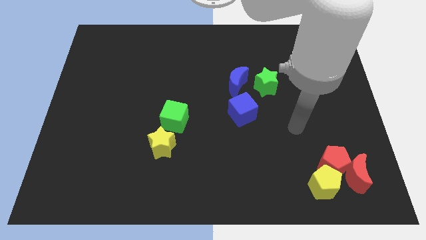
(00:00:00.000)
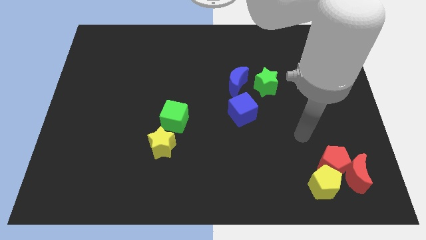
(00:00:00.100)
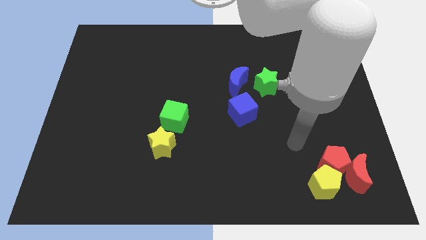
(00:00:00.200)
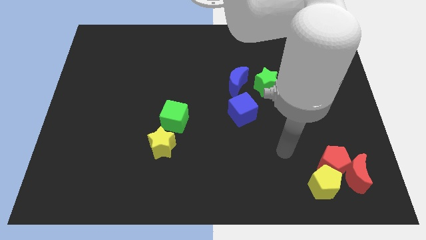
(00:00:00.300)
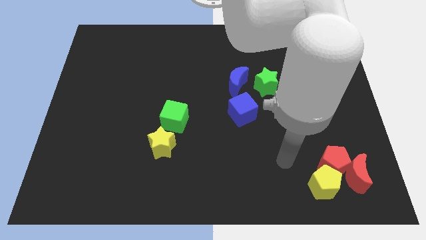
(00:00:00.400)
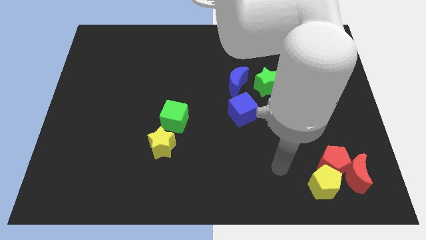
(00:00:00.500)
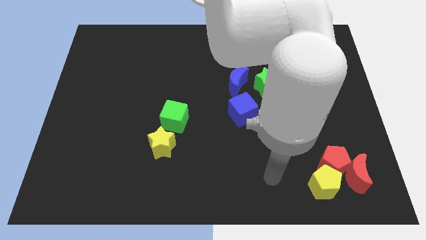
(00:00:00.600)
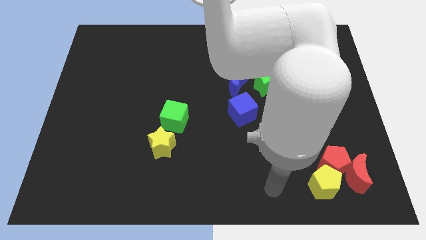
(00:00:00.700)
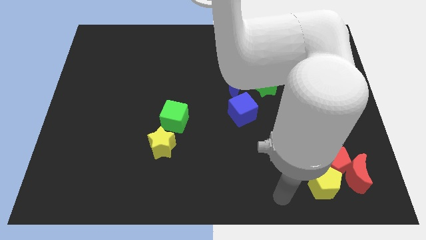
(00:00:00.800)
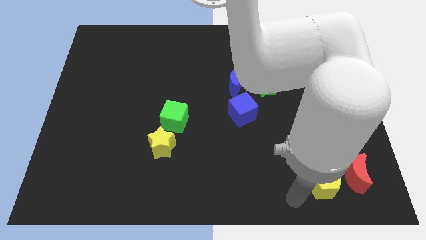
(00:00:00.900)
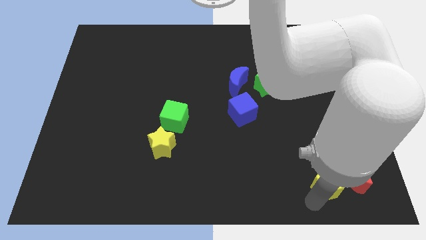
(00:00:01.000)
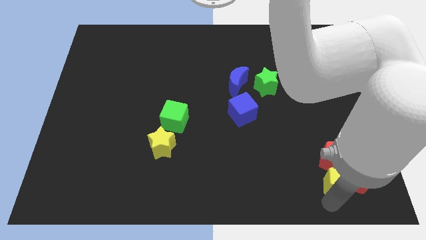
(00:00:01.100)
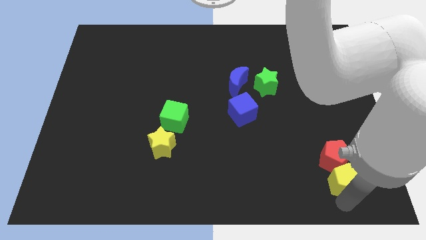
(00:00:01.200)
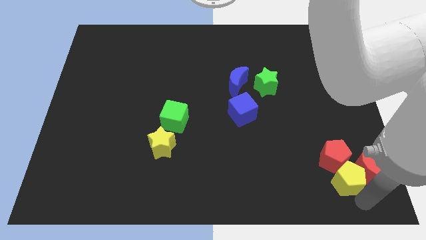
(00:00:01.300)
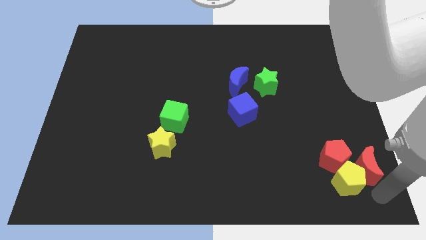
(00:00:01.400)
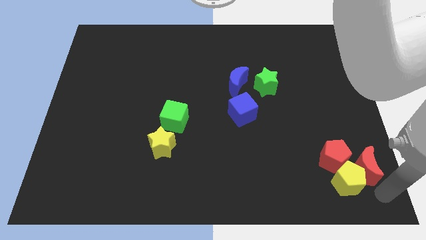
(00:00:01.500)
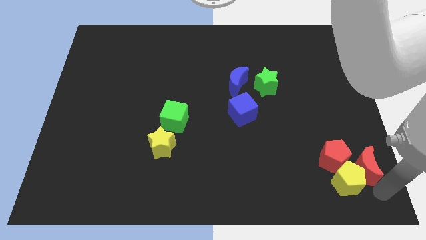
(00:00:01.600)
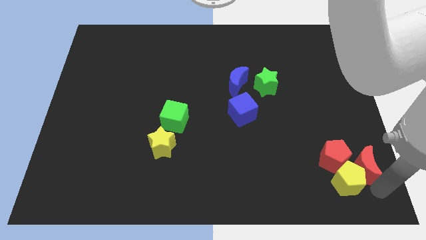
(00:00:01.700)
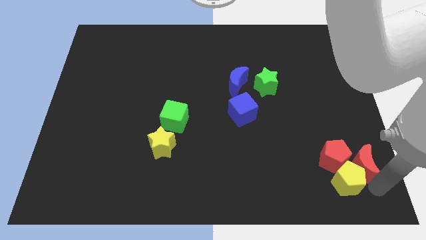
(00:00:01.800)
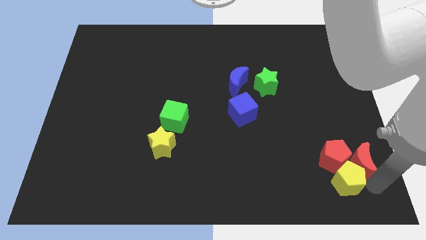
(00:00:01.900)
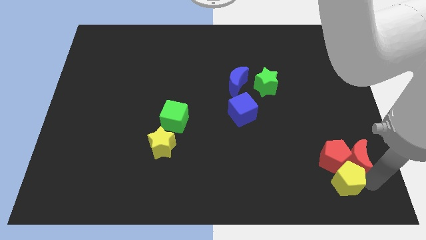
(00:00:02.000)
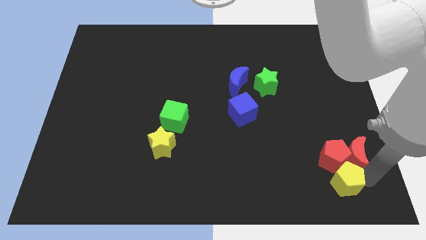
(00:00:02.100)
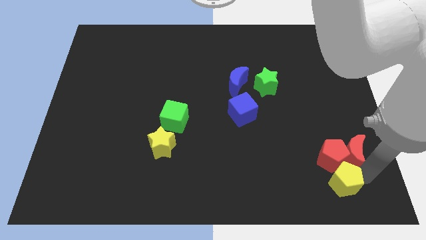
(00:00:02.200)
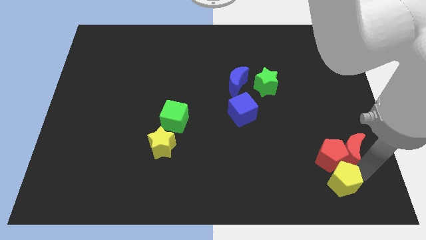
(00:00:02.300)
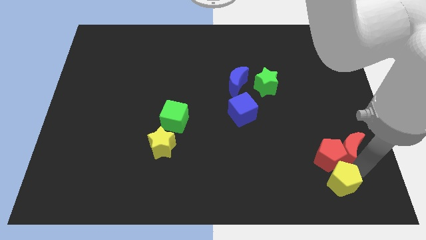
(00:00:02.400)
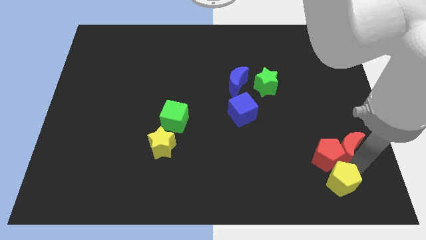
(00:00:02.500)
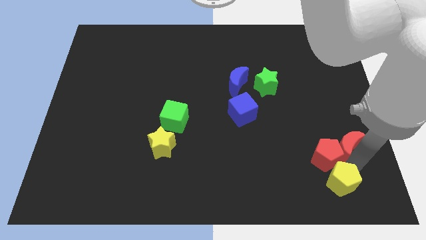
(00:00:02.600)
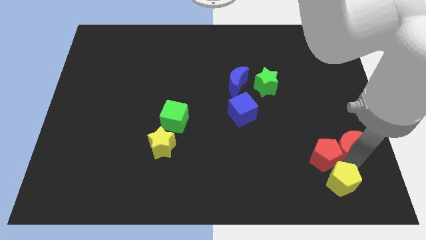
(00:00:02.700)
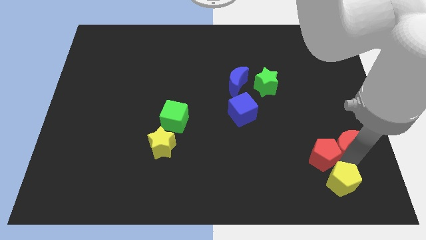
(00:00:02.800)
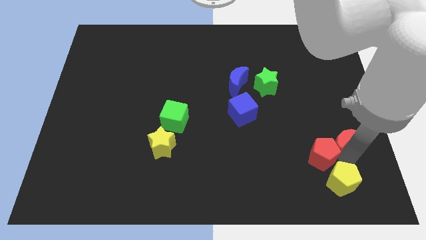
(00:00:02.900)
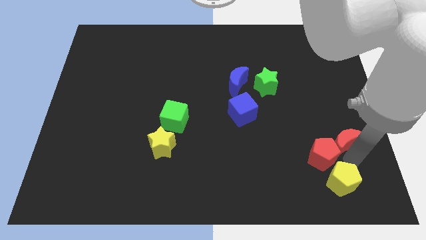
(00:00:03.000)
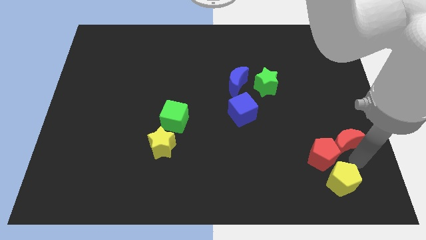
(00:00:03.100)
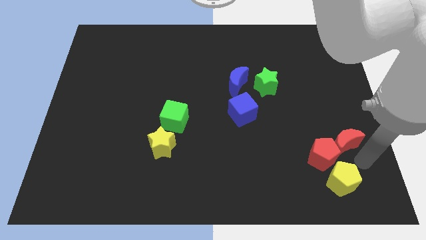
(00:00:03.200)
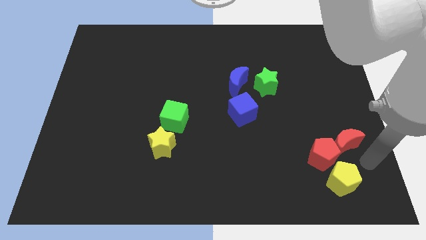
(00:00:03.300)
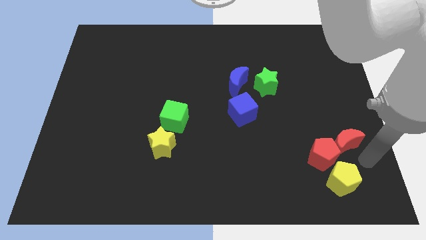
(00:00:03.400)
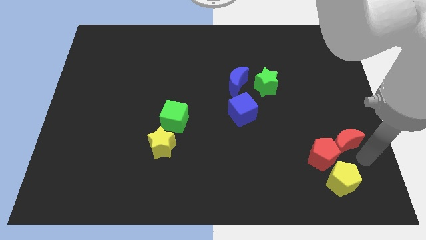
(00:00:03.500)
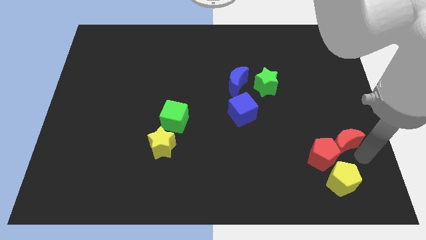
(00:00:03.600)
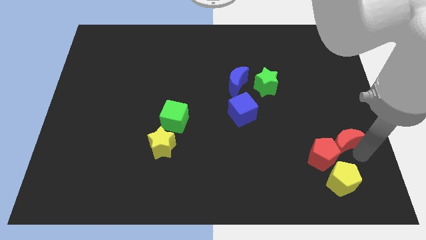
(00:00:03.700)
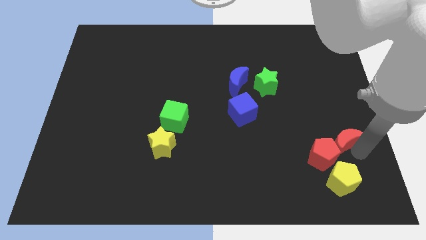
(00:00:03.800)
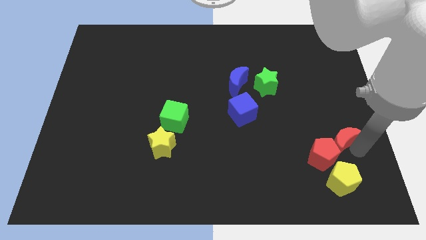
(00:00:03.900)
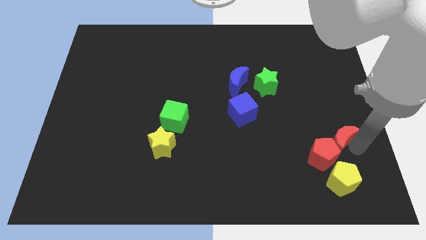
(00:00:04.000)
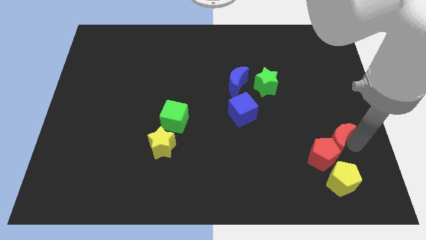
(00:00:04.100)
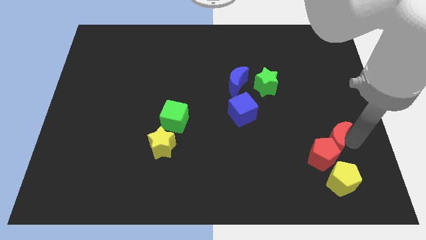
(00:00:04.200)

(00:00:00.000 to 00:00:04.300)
push the red moon upwards and left diagonally a bit

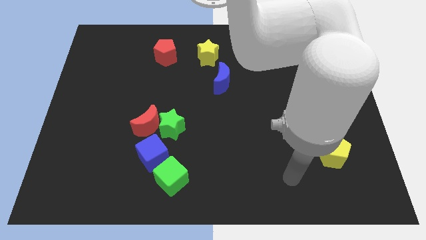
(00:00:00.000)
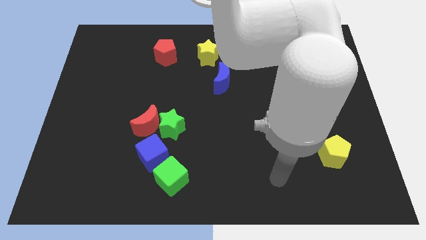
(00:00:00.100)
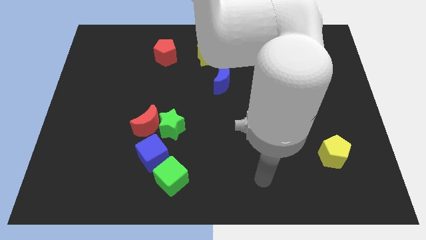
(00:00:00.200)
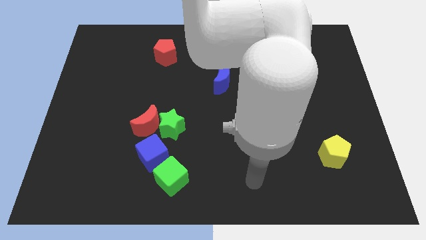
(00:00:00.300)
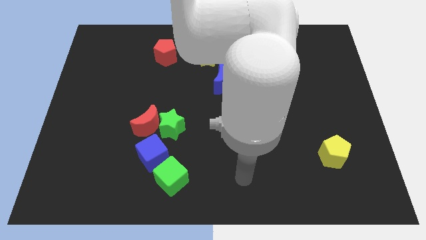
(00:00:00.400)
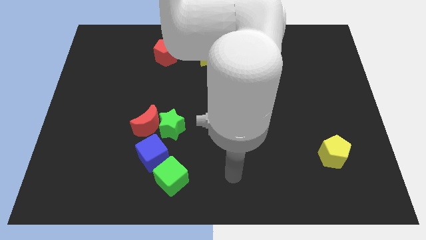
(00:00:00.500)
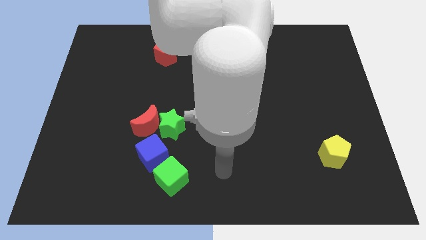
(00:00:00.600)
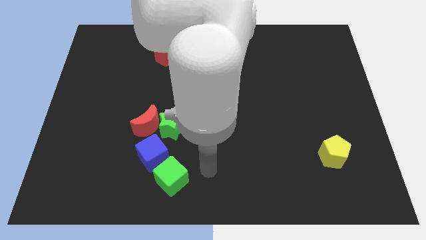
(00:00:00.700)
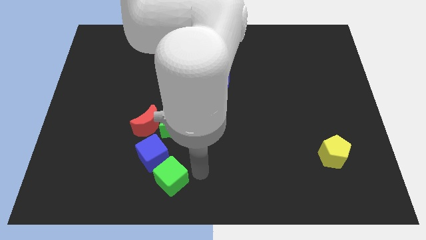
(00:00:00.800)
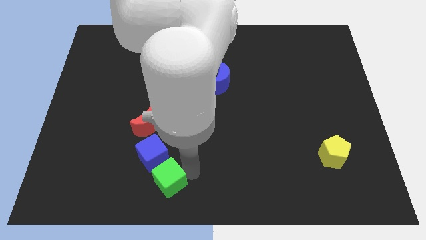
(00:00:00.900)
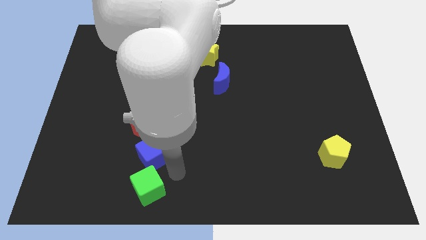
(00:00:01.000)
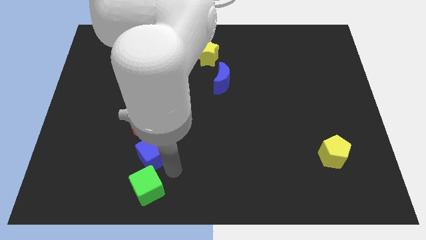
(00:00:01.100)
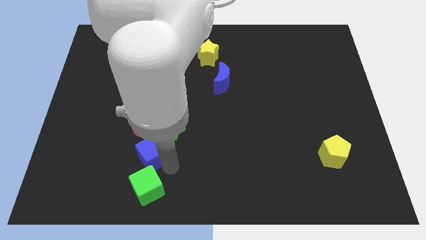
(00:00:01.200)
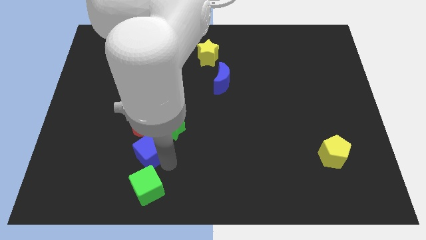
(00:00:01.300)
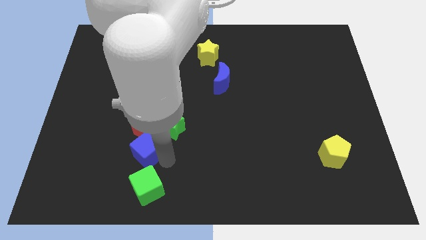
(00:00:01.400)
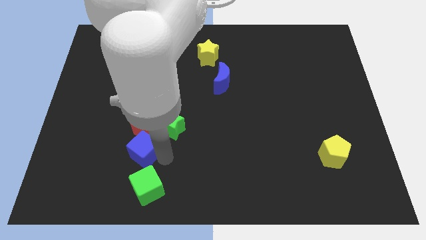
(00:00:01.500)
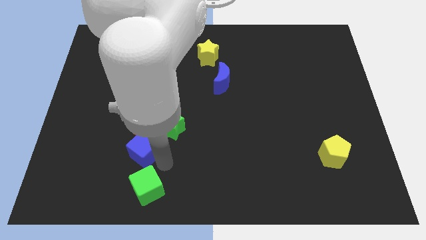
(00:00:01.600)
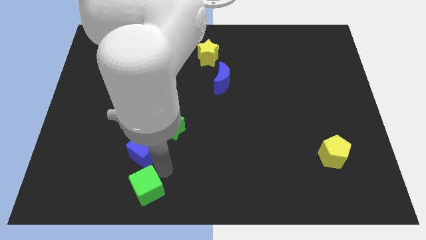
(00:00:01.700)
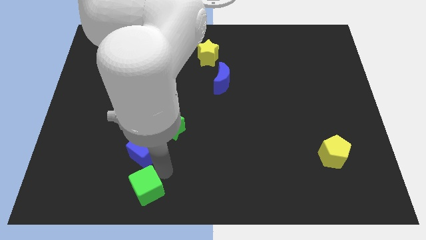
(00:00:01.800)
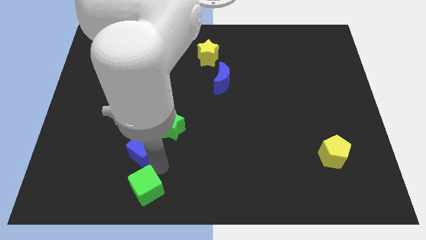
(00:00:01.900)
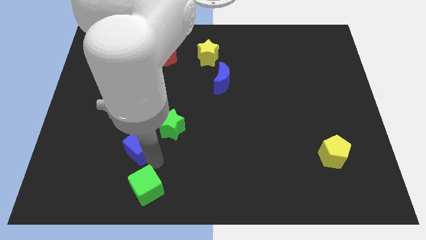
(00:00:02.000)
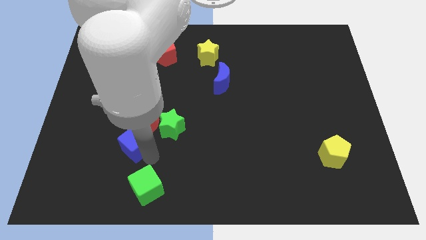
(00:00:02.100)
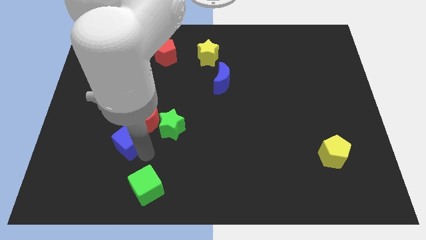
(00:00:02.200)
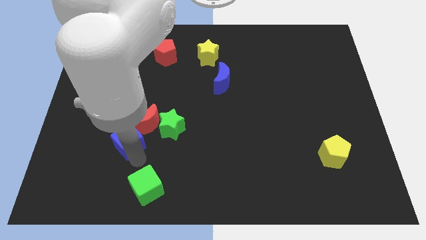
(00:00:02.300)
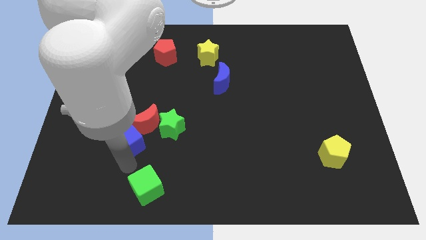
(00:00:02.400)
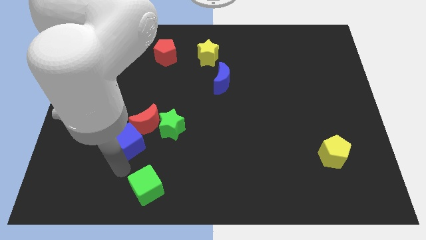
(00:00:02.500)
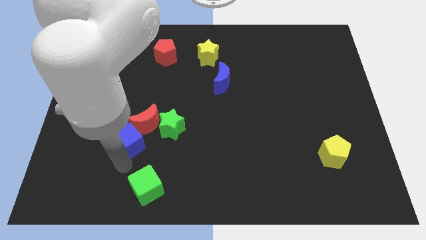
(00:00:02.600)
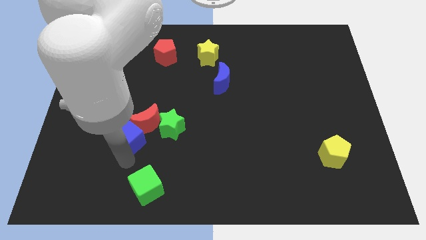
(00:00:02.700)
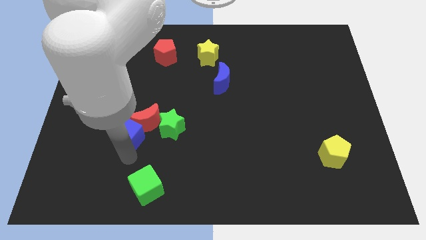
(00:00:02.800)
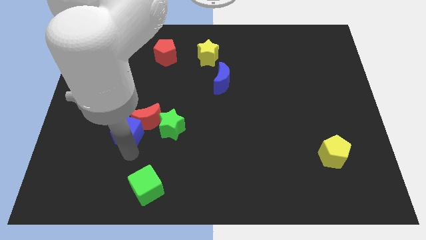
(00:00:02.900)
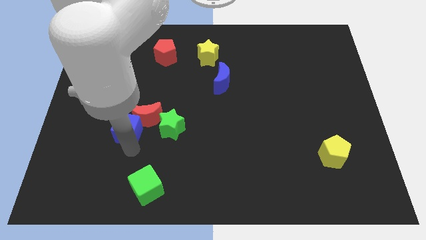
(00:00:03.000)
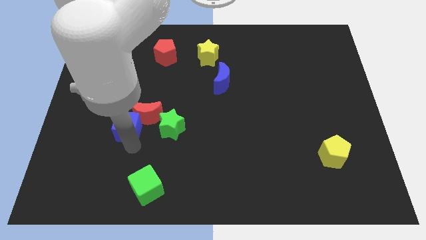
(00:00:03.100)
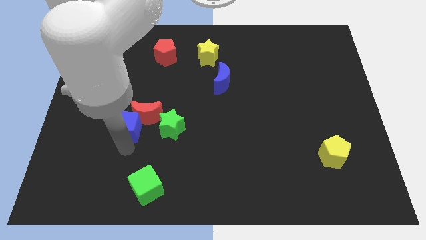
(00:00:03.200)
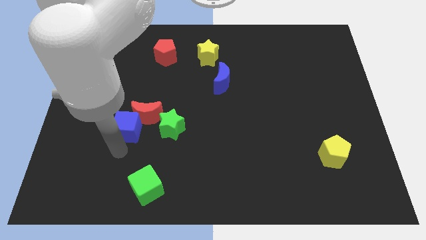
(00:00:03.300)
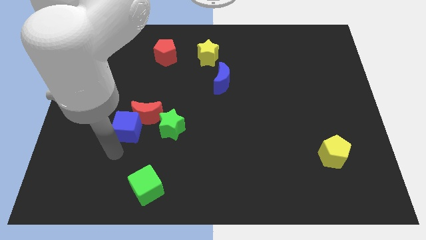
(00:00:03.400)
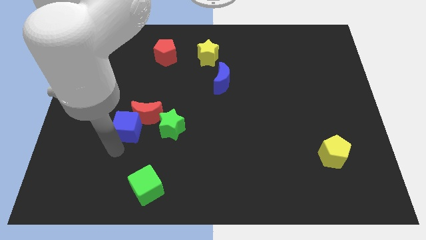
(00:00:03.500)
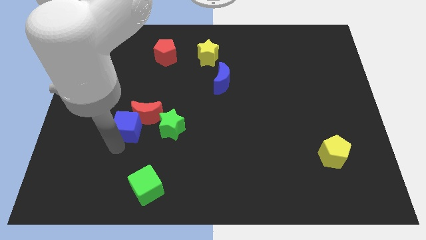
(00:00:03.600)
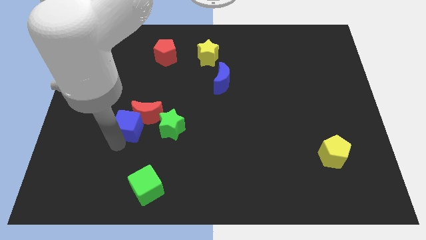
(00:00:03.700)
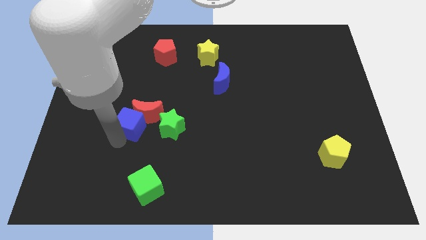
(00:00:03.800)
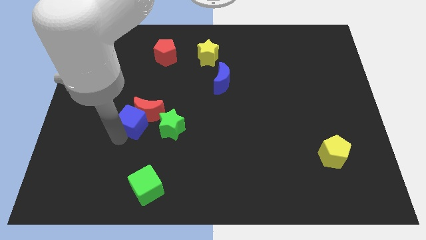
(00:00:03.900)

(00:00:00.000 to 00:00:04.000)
push the blue cube a bit upwards
